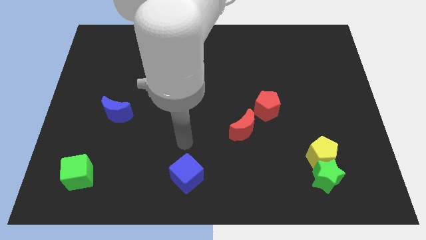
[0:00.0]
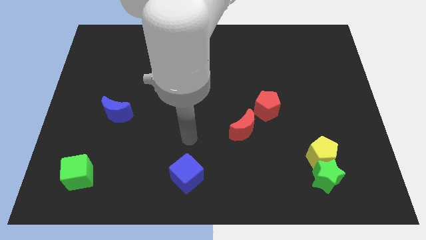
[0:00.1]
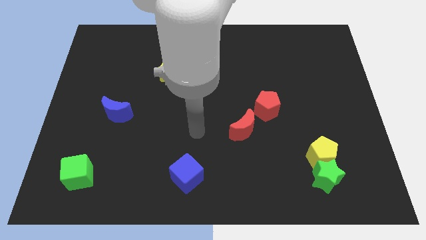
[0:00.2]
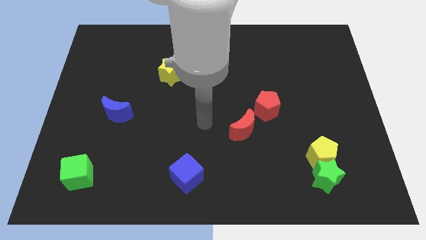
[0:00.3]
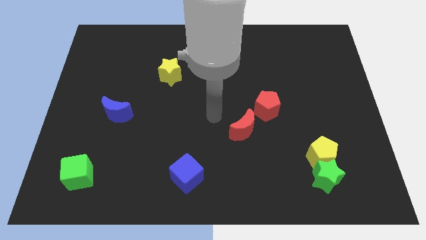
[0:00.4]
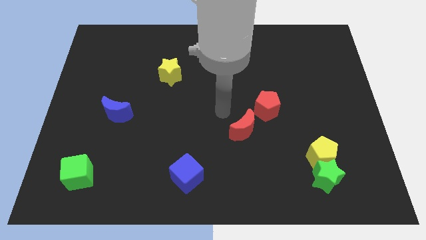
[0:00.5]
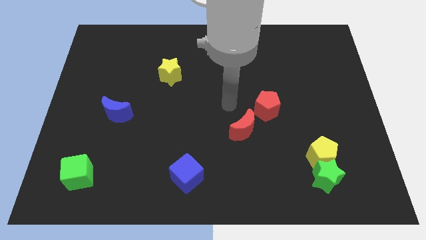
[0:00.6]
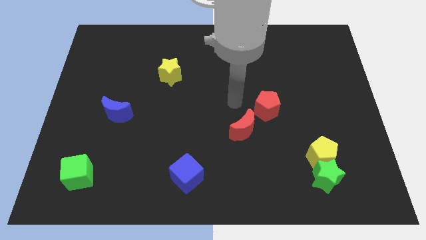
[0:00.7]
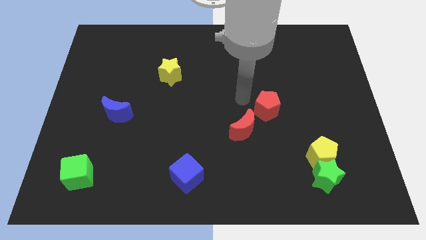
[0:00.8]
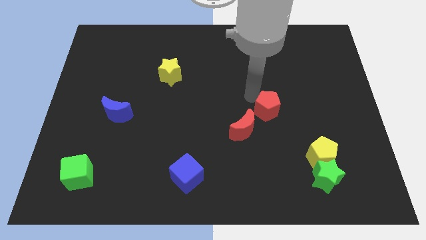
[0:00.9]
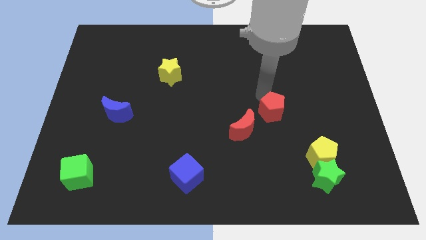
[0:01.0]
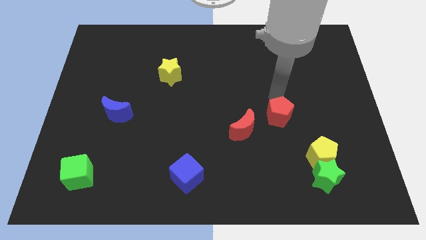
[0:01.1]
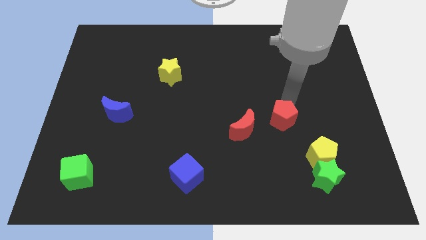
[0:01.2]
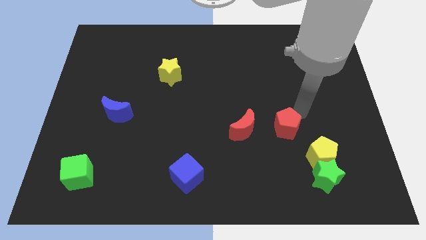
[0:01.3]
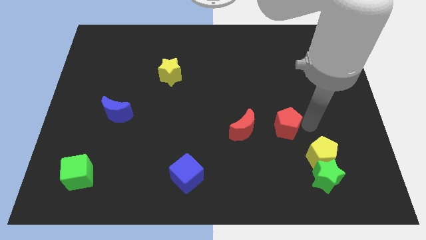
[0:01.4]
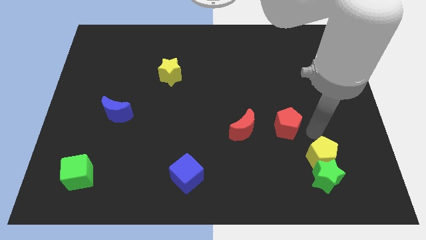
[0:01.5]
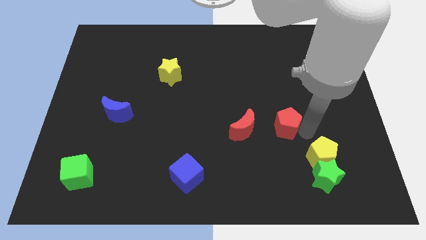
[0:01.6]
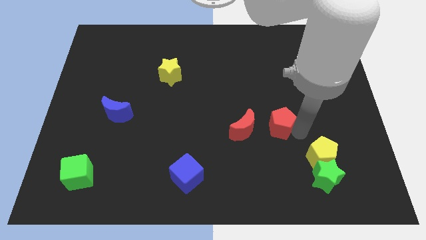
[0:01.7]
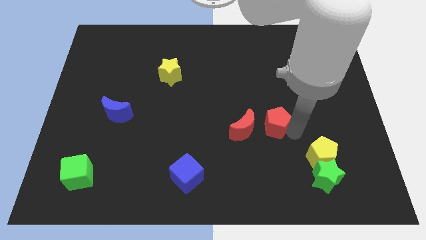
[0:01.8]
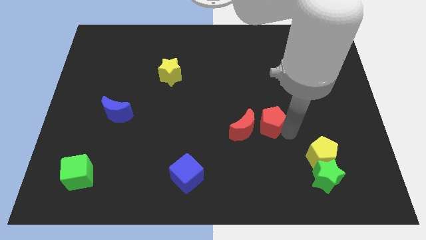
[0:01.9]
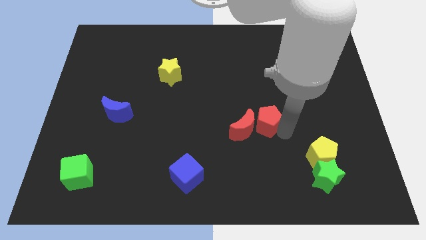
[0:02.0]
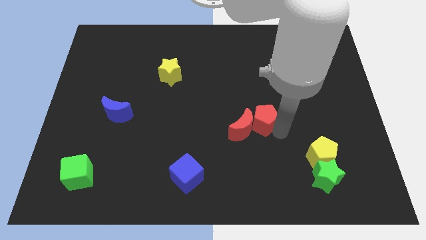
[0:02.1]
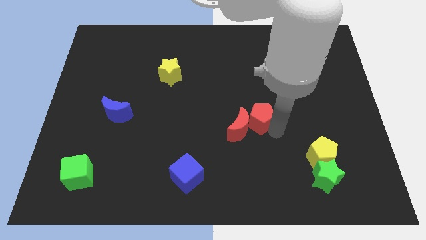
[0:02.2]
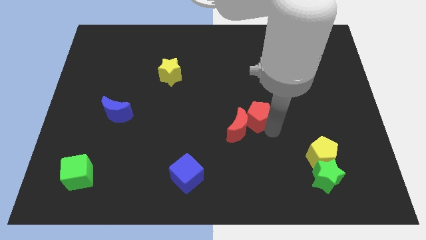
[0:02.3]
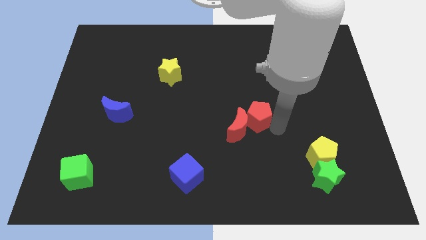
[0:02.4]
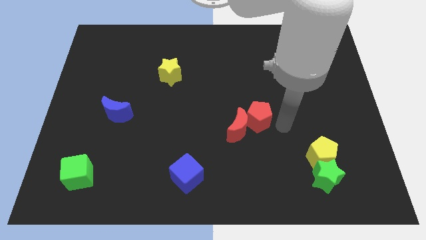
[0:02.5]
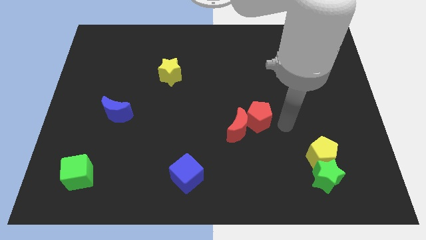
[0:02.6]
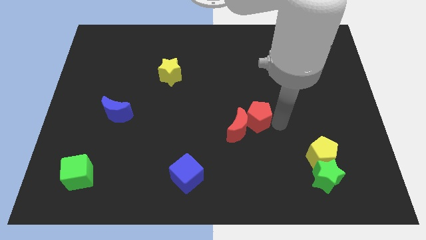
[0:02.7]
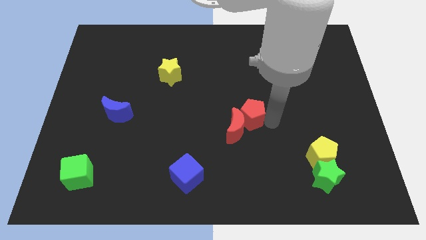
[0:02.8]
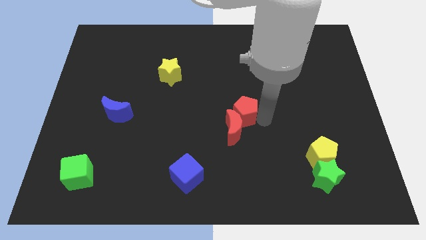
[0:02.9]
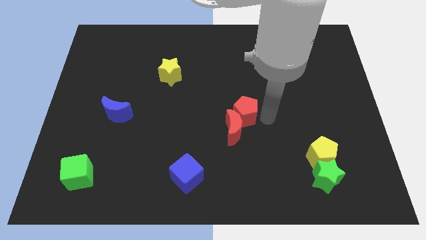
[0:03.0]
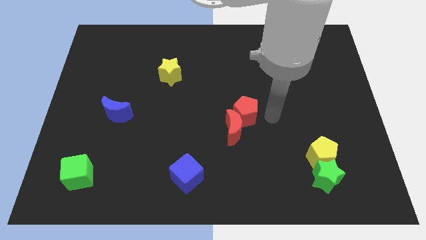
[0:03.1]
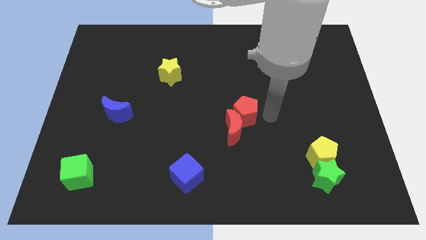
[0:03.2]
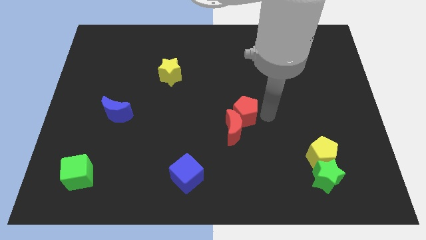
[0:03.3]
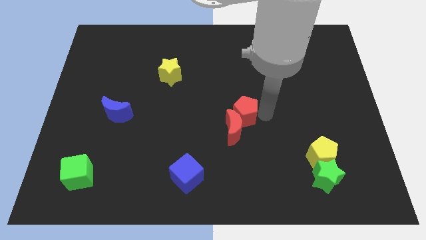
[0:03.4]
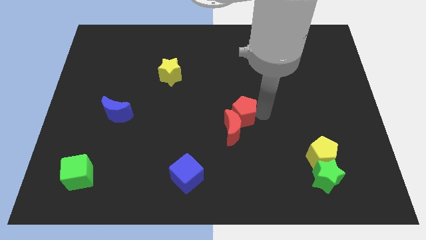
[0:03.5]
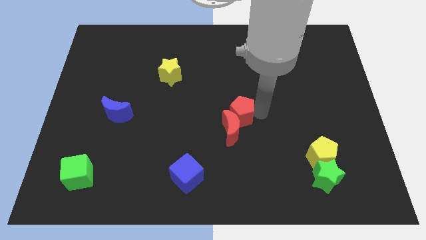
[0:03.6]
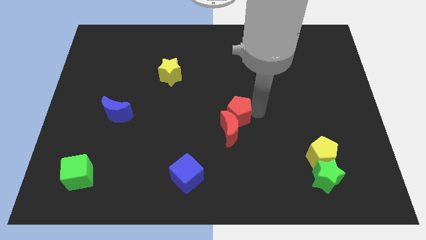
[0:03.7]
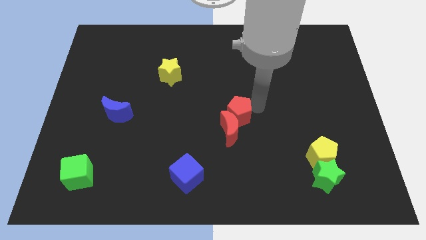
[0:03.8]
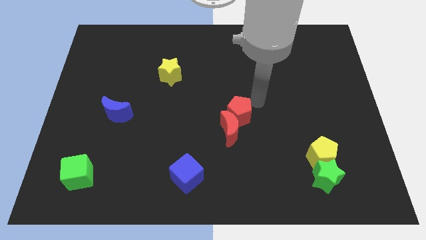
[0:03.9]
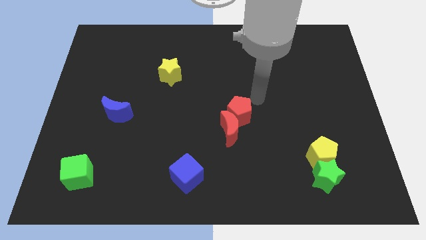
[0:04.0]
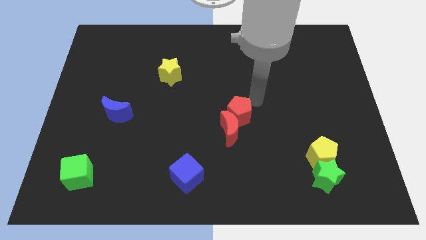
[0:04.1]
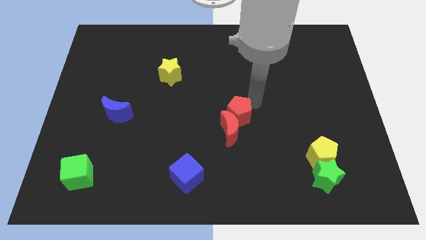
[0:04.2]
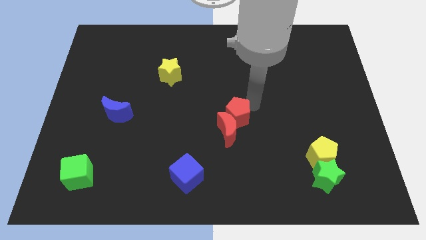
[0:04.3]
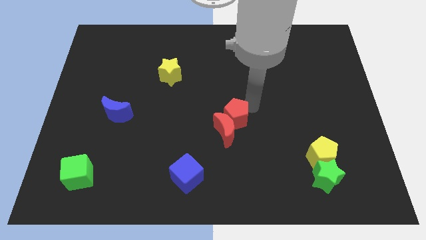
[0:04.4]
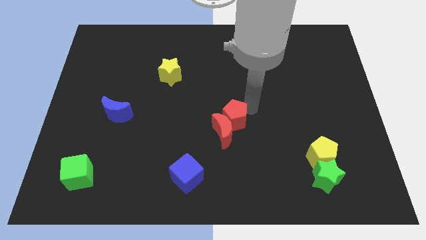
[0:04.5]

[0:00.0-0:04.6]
push the red pentagon a bit downwards and left diagonally

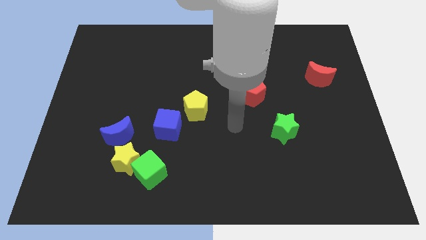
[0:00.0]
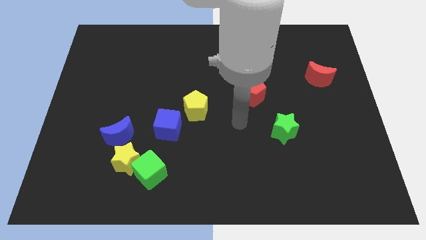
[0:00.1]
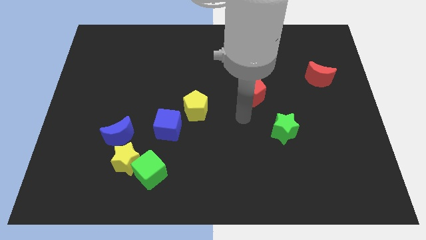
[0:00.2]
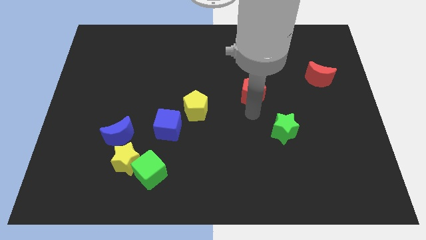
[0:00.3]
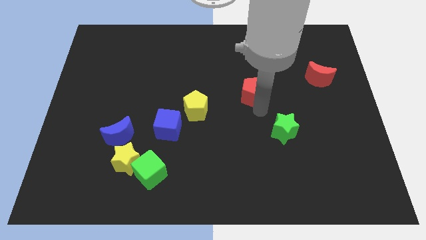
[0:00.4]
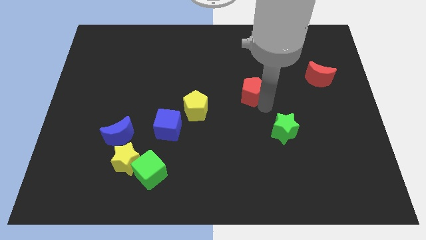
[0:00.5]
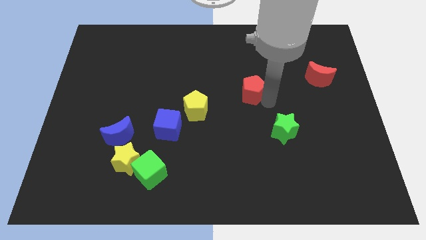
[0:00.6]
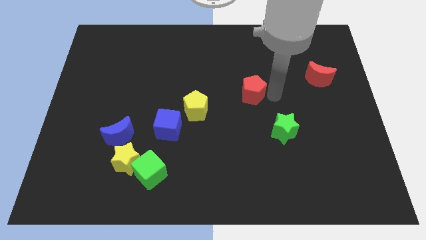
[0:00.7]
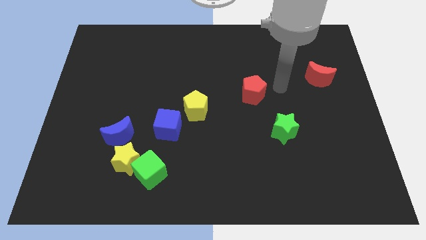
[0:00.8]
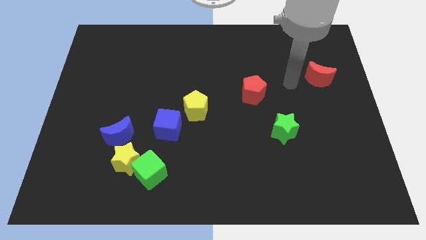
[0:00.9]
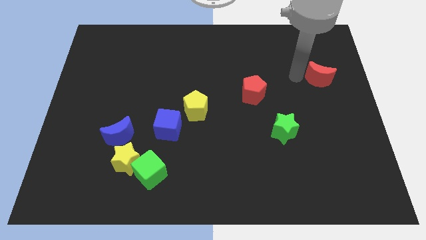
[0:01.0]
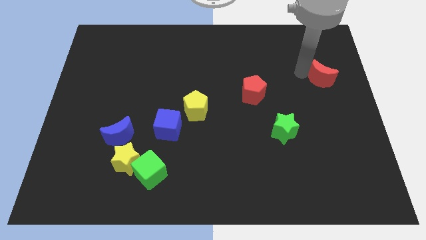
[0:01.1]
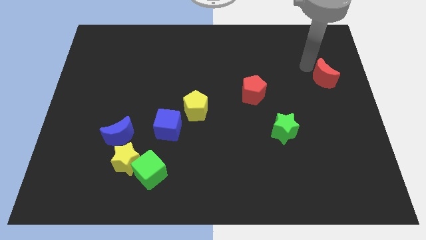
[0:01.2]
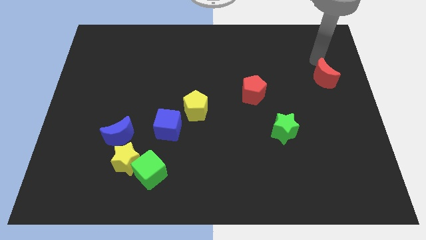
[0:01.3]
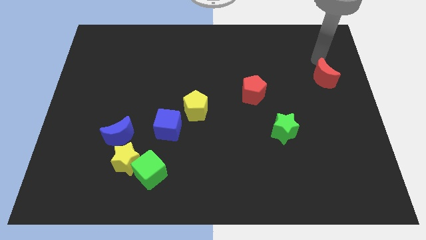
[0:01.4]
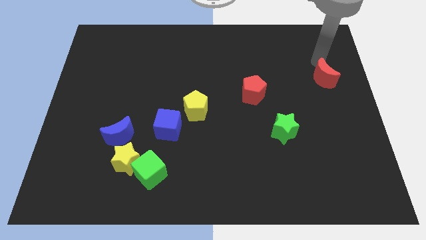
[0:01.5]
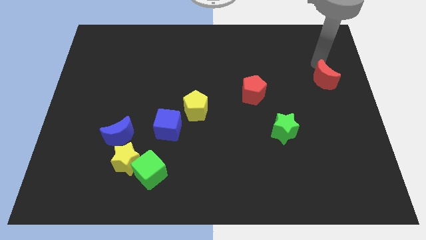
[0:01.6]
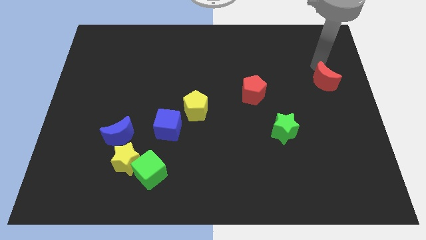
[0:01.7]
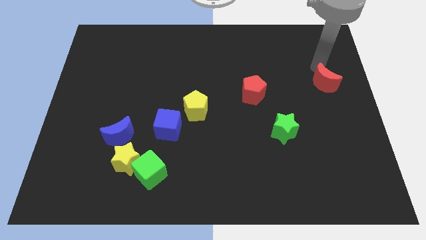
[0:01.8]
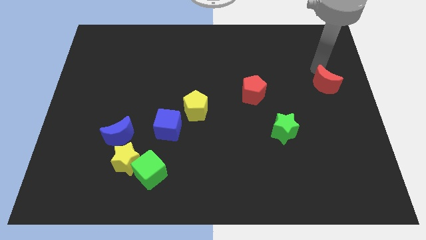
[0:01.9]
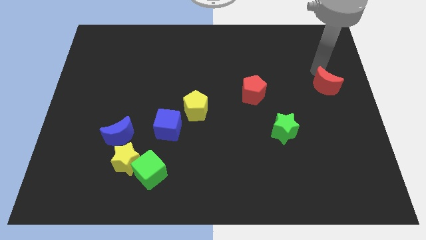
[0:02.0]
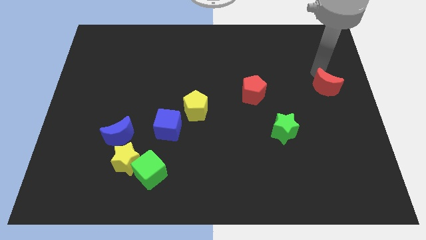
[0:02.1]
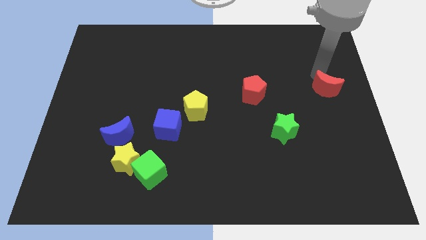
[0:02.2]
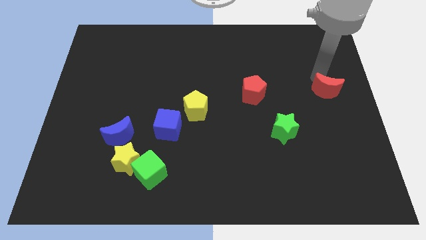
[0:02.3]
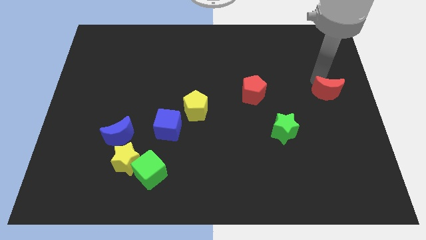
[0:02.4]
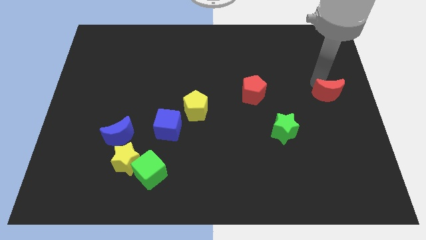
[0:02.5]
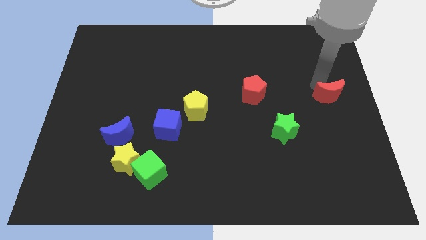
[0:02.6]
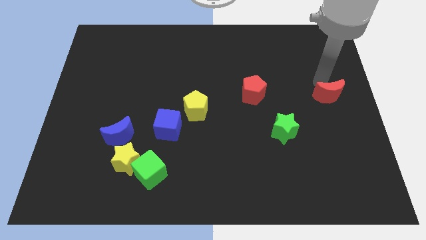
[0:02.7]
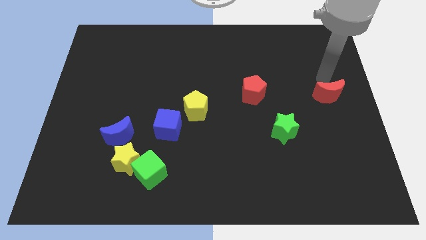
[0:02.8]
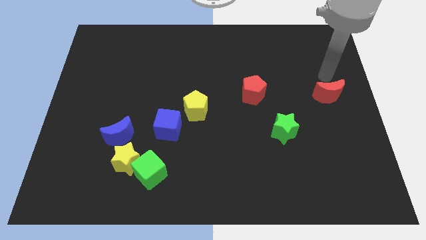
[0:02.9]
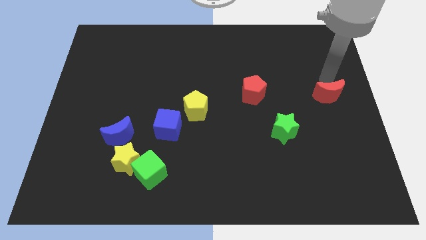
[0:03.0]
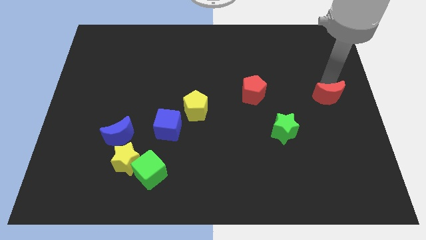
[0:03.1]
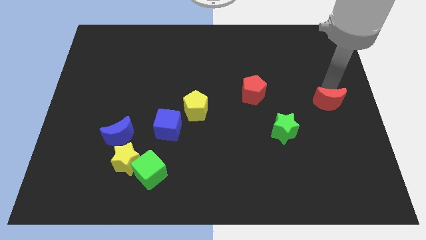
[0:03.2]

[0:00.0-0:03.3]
slightly push the red moon down
